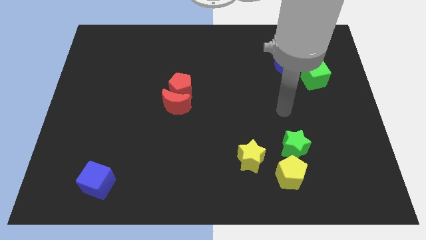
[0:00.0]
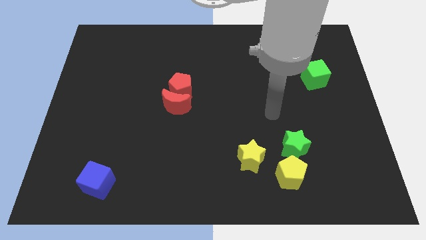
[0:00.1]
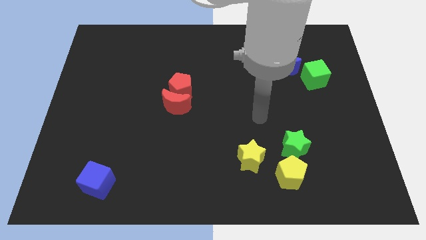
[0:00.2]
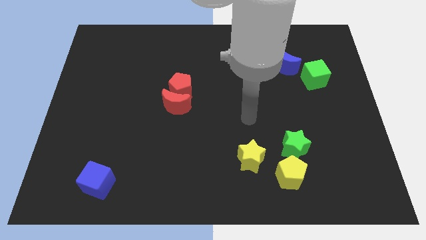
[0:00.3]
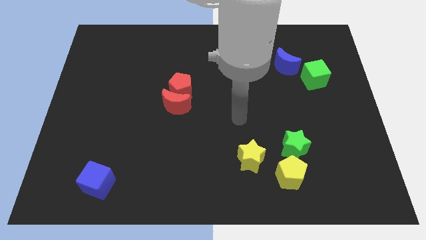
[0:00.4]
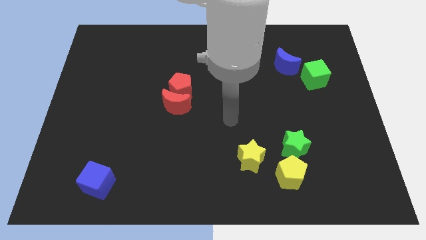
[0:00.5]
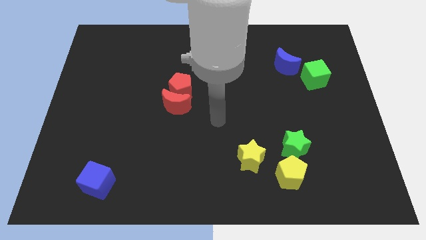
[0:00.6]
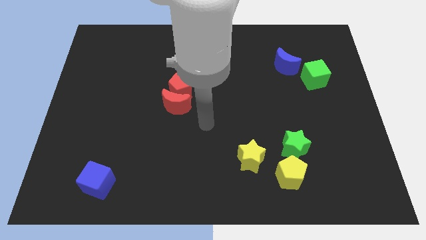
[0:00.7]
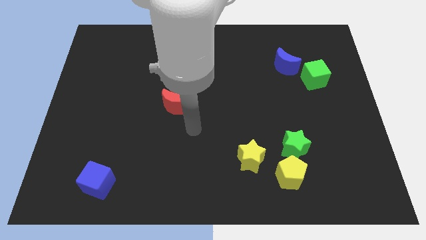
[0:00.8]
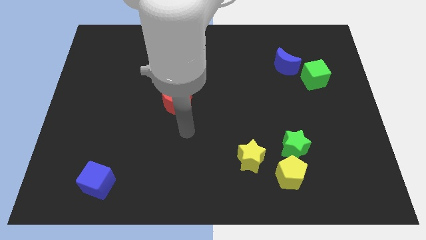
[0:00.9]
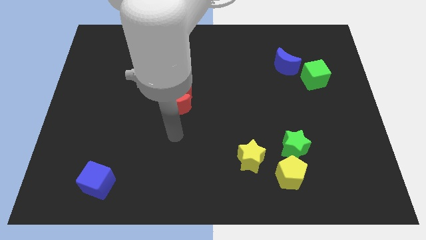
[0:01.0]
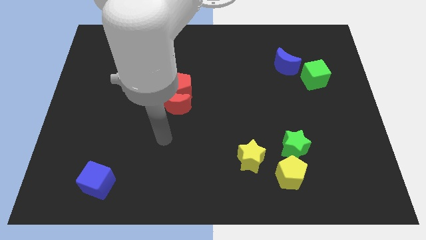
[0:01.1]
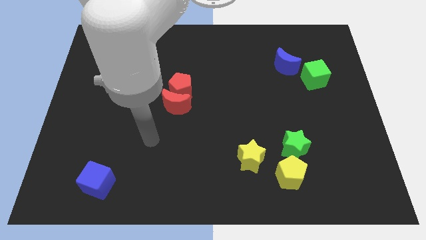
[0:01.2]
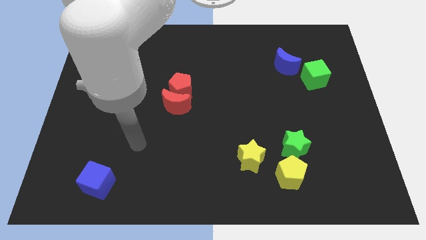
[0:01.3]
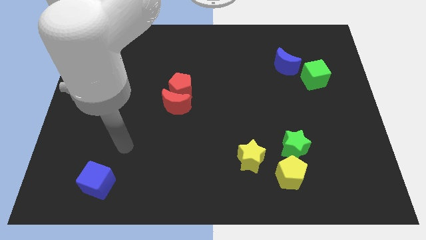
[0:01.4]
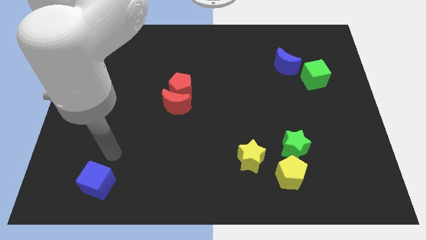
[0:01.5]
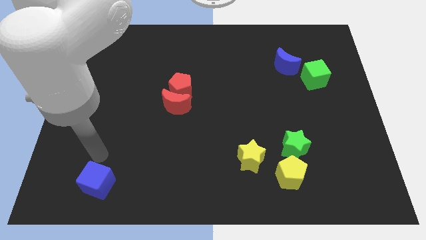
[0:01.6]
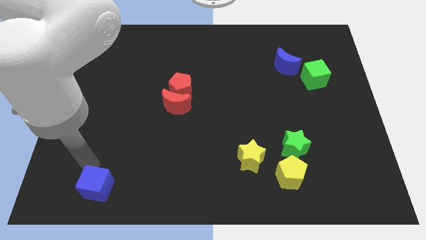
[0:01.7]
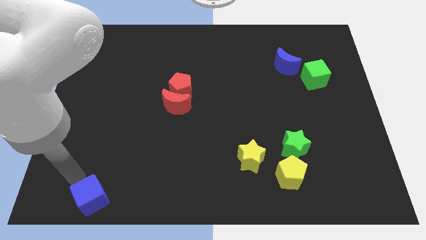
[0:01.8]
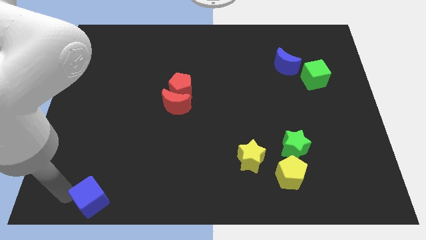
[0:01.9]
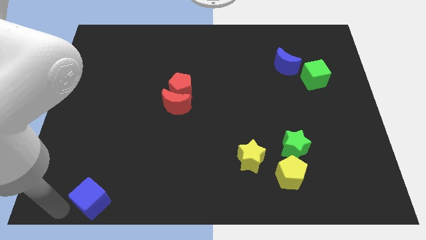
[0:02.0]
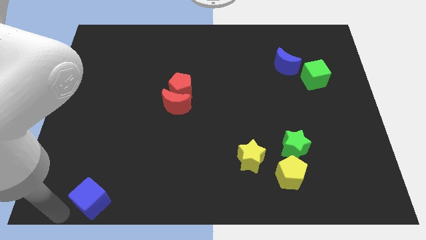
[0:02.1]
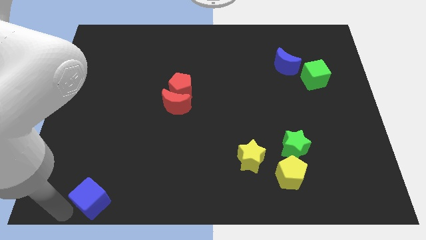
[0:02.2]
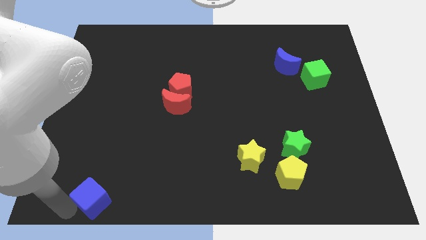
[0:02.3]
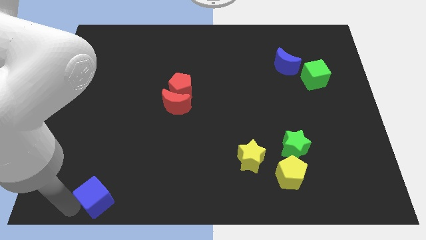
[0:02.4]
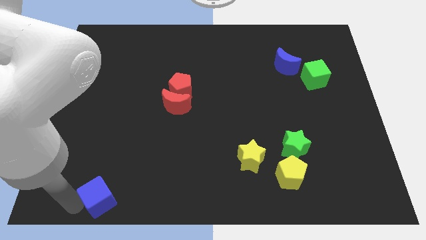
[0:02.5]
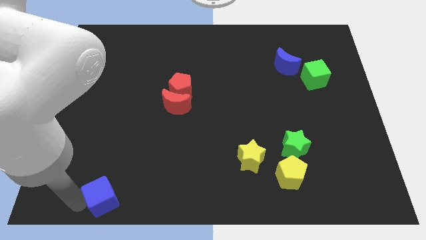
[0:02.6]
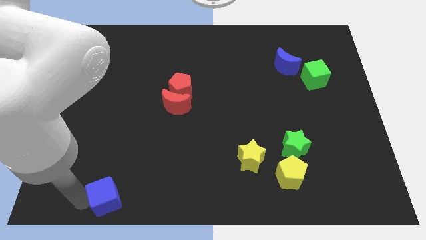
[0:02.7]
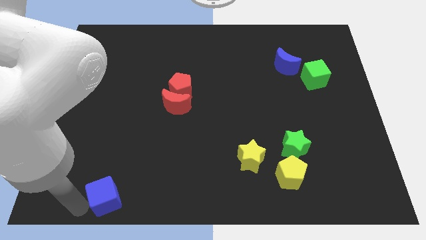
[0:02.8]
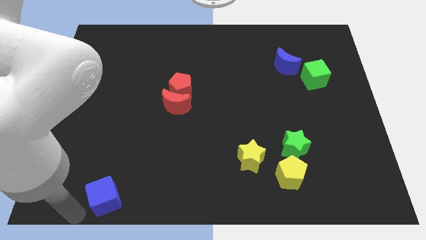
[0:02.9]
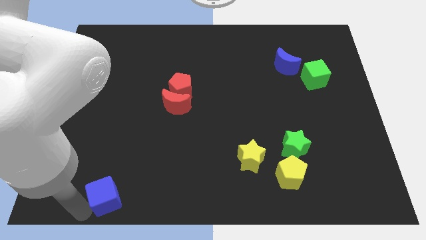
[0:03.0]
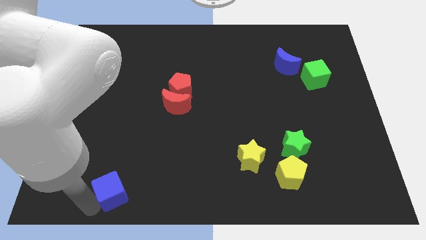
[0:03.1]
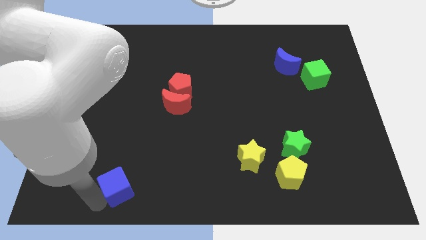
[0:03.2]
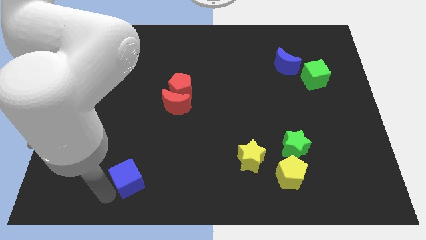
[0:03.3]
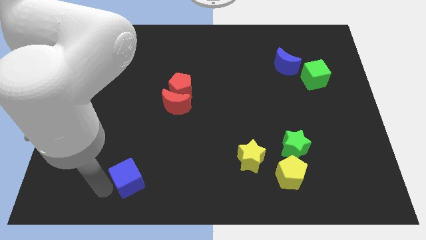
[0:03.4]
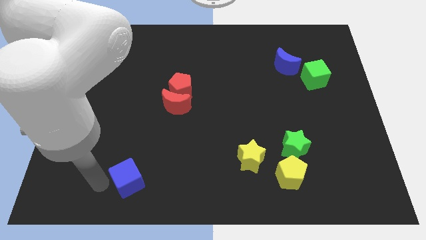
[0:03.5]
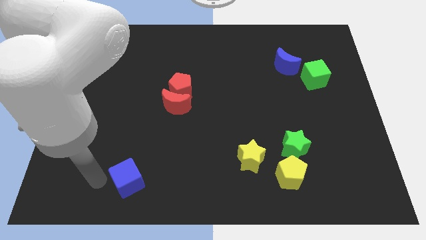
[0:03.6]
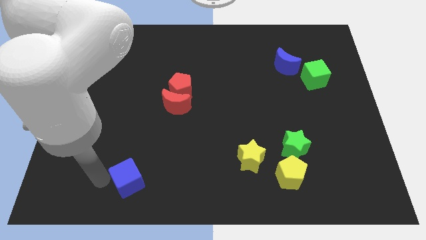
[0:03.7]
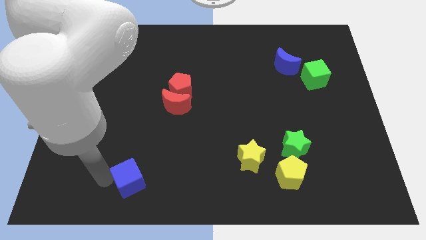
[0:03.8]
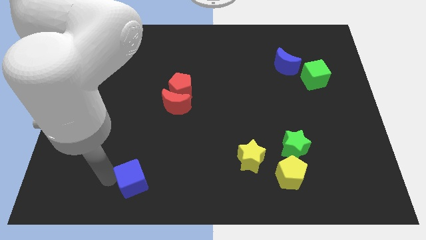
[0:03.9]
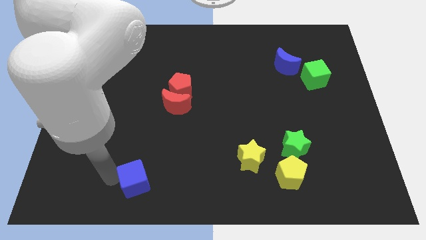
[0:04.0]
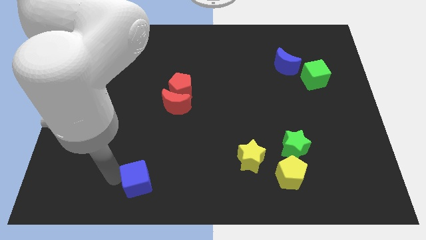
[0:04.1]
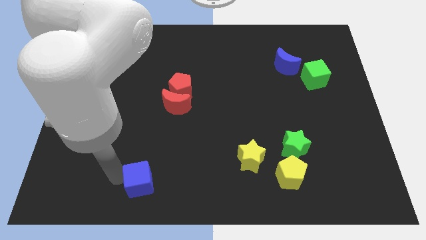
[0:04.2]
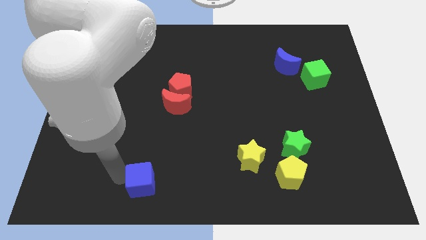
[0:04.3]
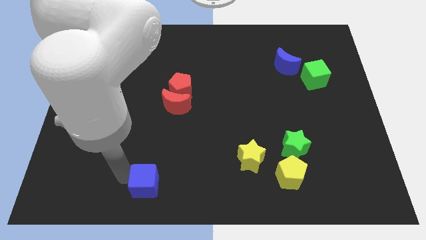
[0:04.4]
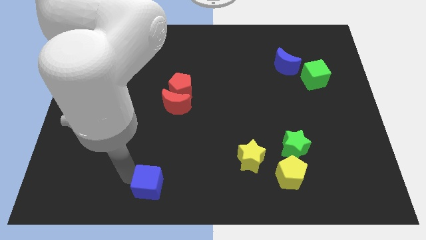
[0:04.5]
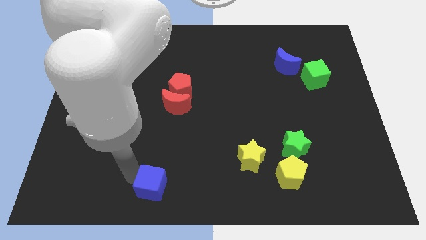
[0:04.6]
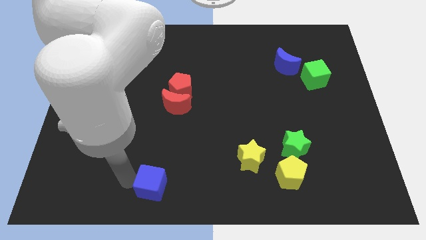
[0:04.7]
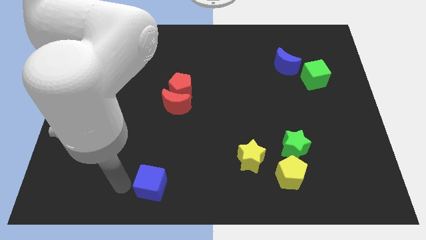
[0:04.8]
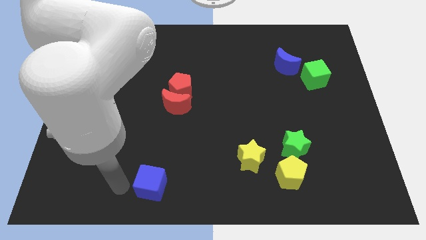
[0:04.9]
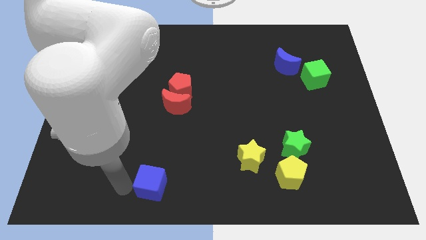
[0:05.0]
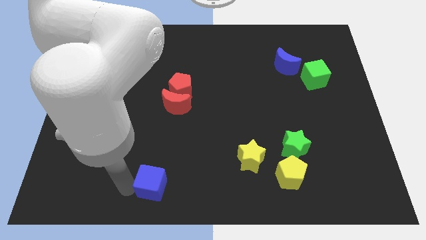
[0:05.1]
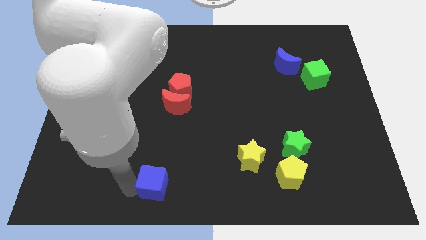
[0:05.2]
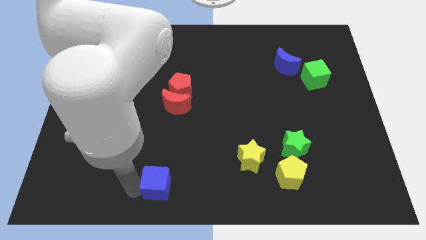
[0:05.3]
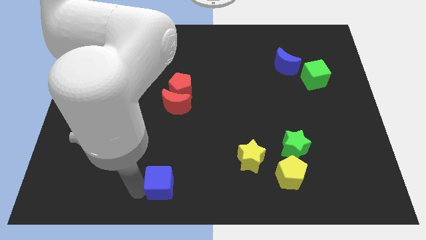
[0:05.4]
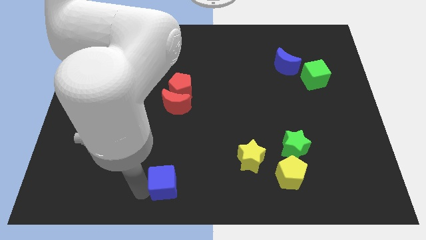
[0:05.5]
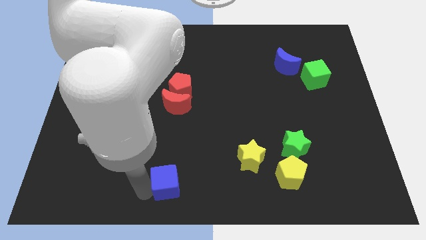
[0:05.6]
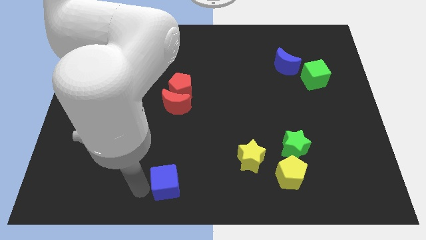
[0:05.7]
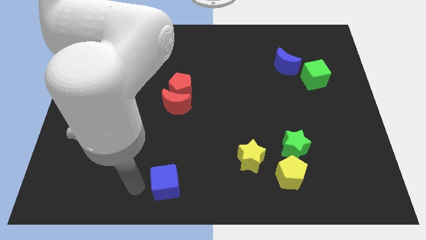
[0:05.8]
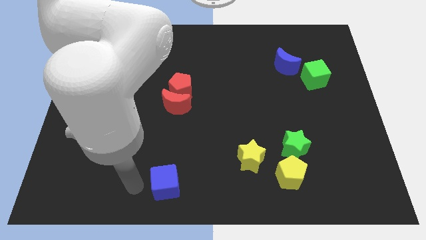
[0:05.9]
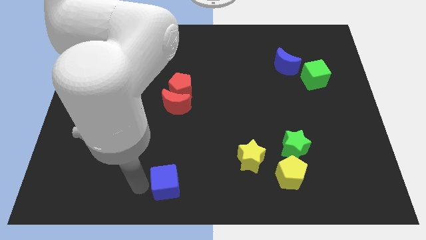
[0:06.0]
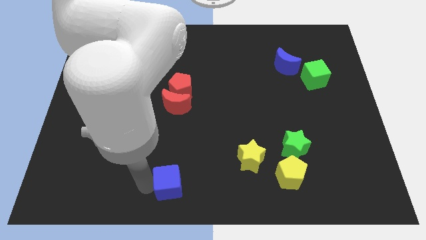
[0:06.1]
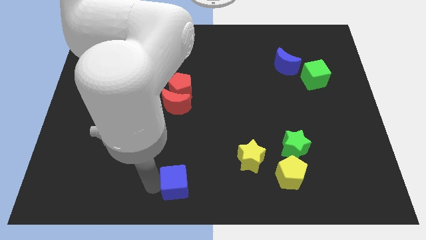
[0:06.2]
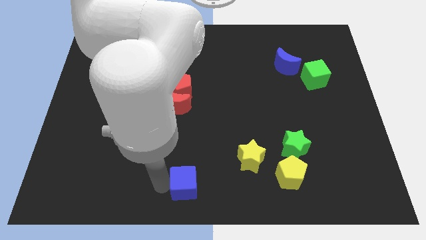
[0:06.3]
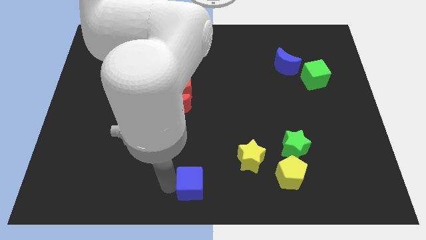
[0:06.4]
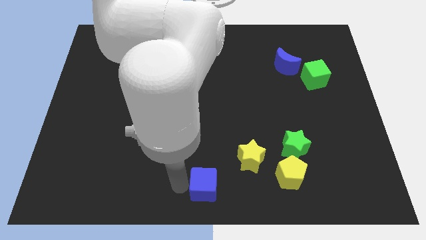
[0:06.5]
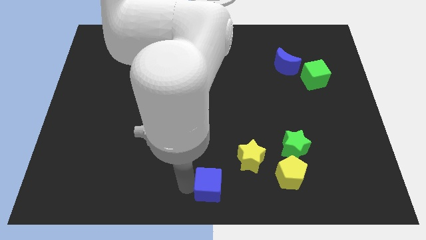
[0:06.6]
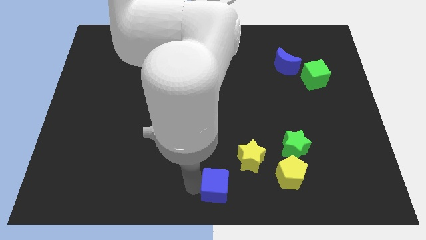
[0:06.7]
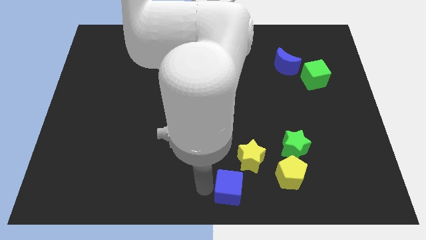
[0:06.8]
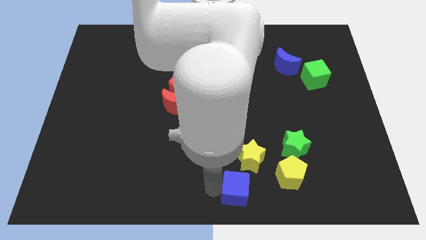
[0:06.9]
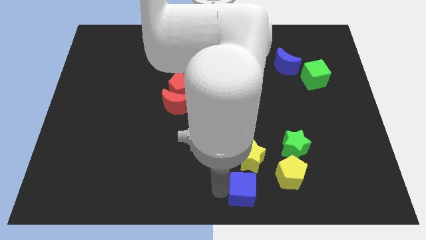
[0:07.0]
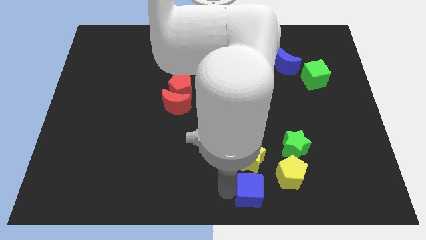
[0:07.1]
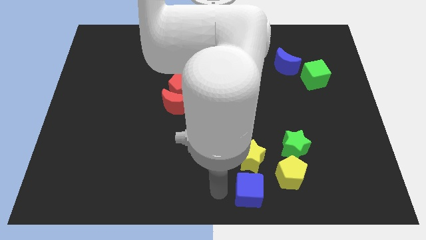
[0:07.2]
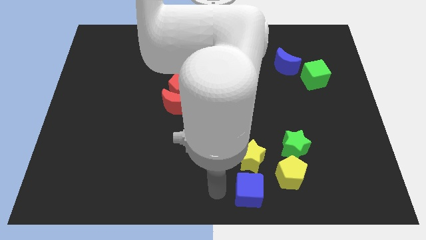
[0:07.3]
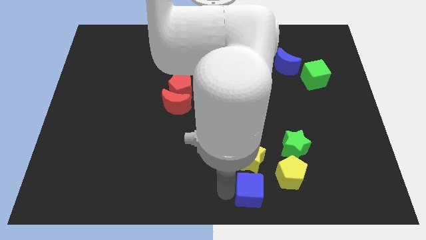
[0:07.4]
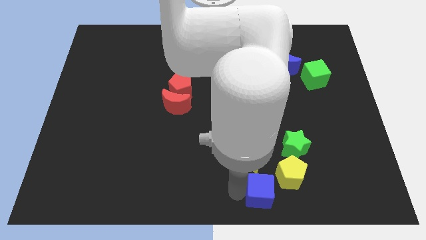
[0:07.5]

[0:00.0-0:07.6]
move the blue cube to the bottom right side of the yellow star
